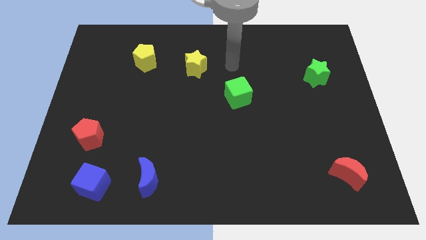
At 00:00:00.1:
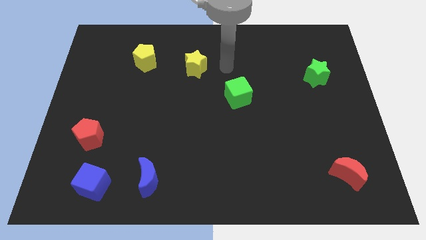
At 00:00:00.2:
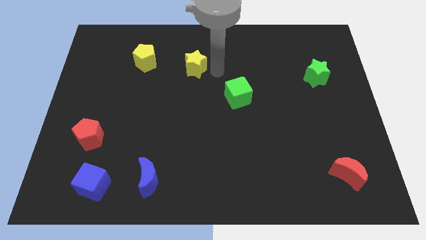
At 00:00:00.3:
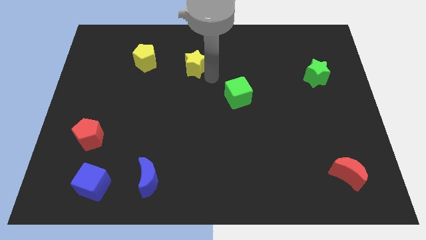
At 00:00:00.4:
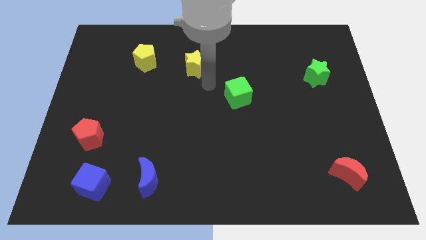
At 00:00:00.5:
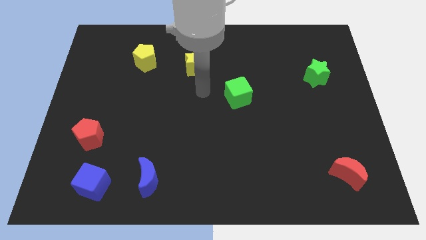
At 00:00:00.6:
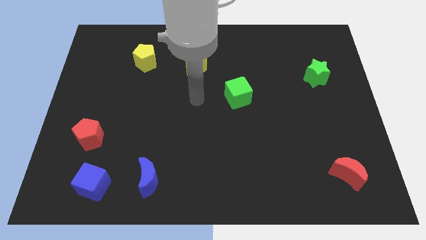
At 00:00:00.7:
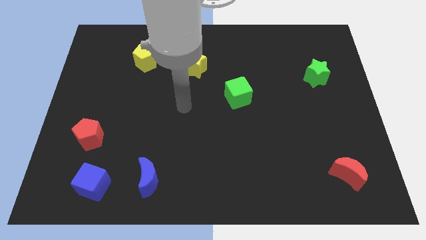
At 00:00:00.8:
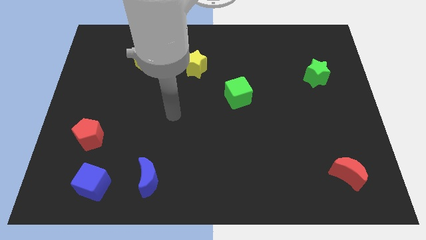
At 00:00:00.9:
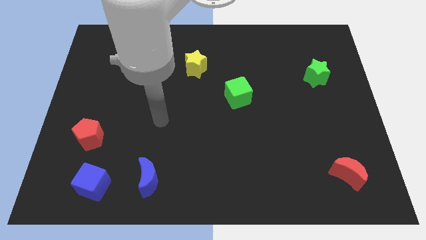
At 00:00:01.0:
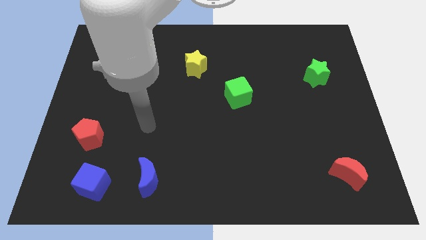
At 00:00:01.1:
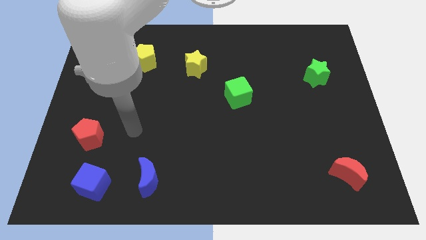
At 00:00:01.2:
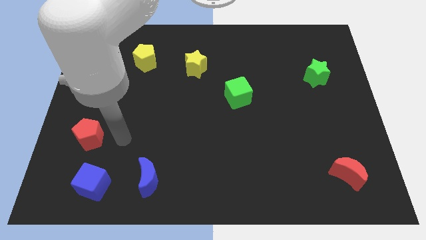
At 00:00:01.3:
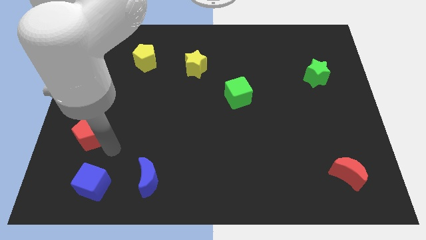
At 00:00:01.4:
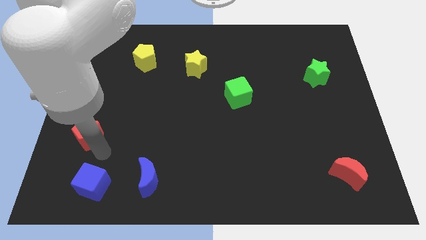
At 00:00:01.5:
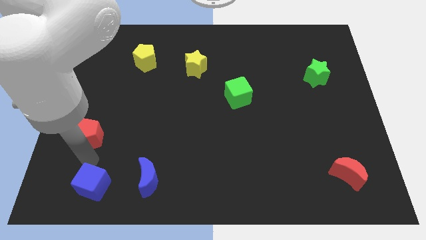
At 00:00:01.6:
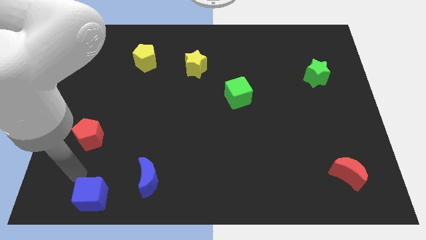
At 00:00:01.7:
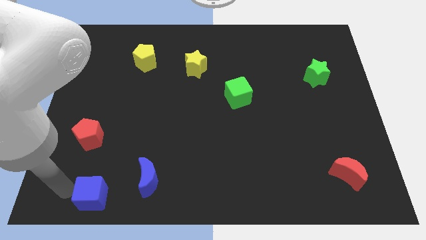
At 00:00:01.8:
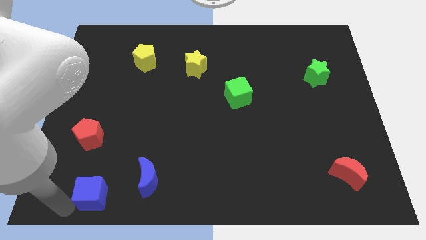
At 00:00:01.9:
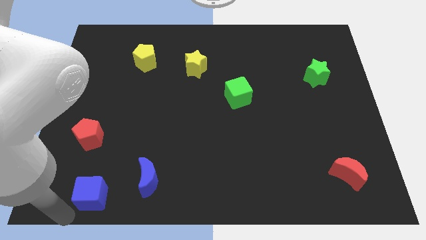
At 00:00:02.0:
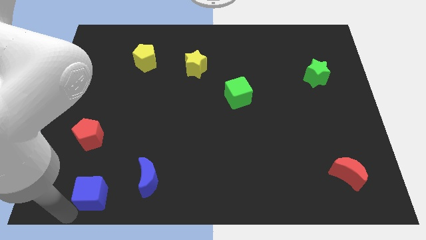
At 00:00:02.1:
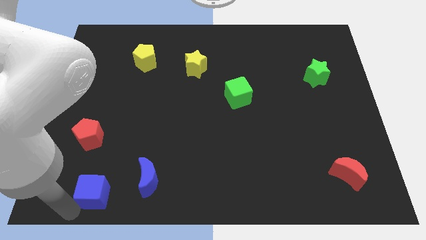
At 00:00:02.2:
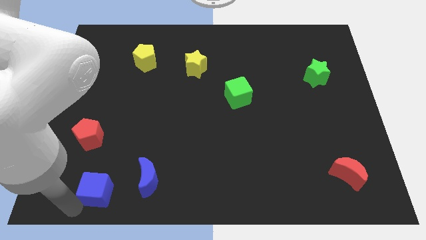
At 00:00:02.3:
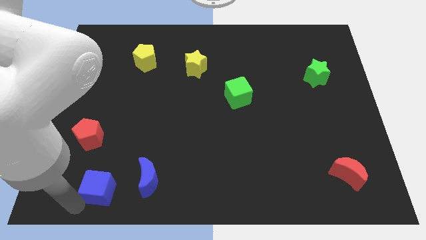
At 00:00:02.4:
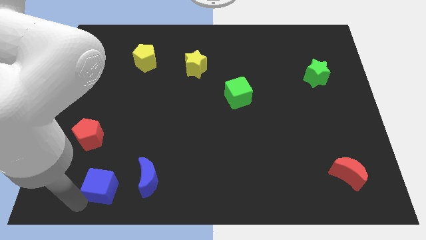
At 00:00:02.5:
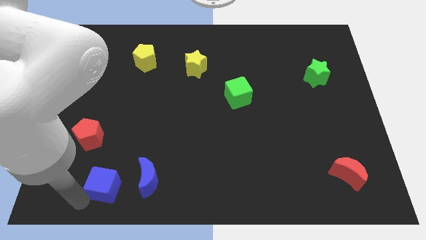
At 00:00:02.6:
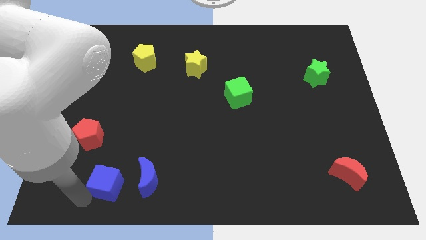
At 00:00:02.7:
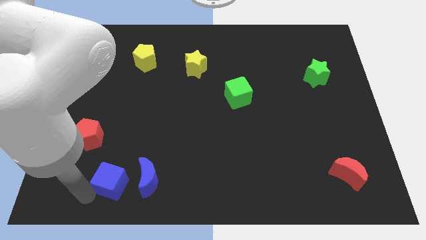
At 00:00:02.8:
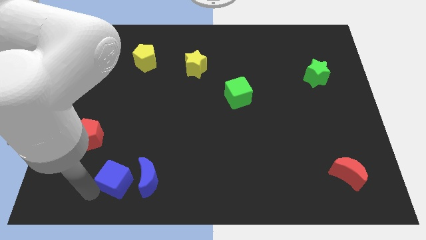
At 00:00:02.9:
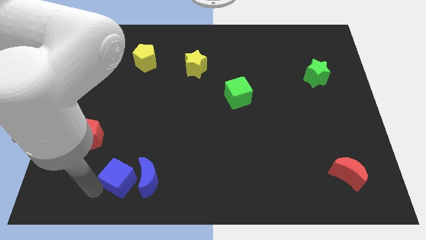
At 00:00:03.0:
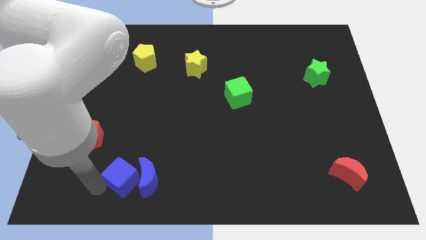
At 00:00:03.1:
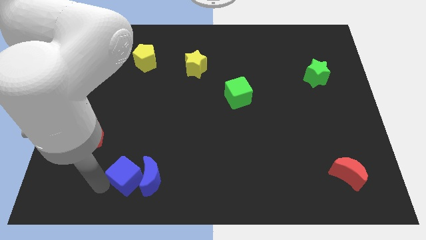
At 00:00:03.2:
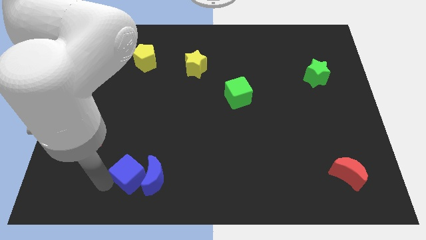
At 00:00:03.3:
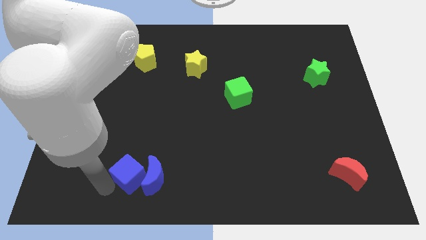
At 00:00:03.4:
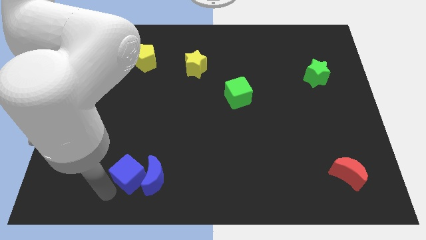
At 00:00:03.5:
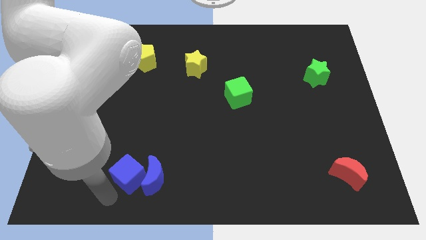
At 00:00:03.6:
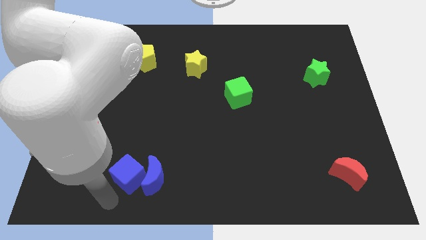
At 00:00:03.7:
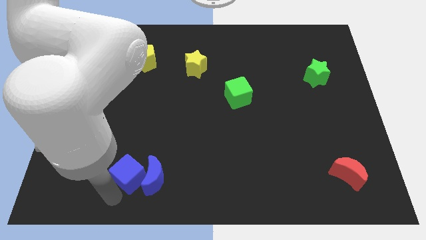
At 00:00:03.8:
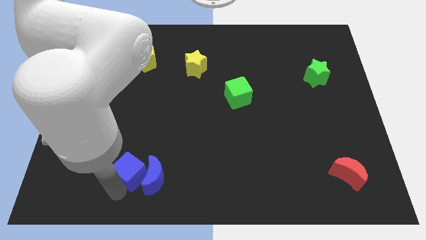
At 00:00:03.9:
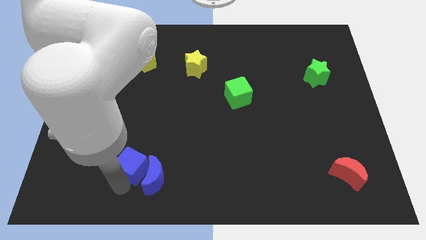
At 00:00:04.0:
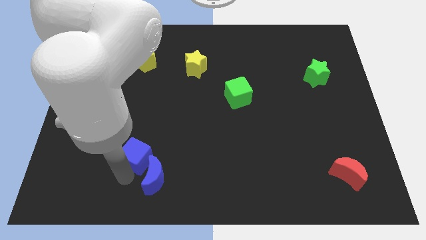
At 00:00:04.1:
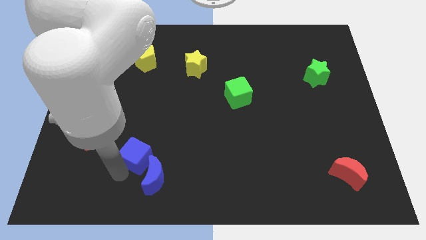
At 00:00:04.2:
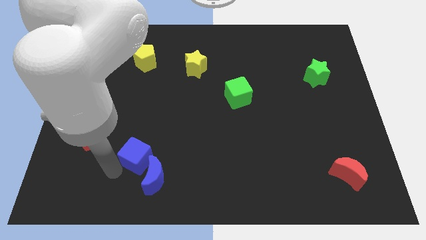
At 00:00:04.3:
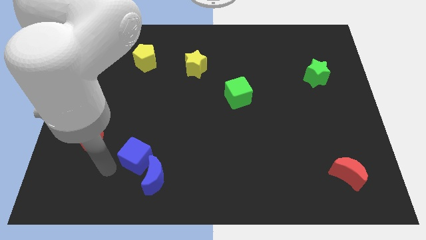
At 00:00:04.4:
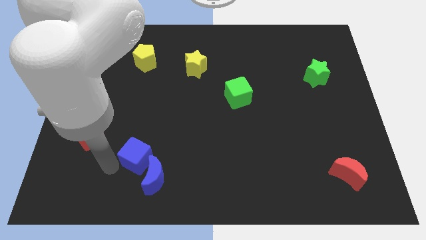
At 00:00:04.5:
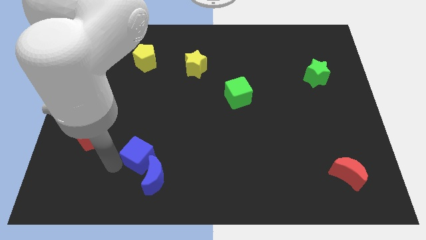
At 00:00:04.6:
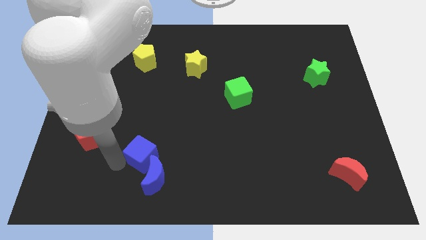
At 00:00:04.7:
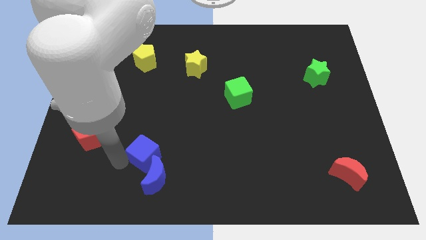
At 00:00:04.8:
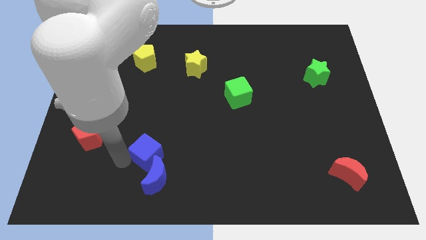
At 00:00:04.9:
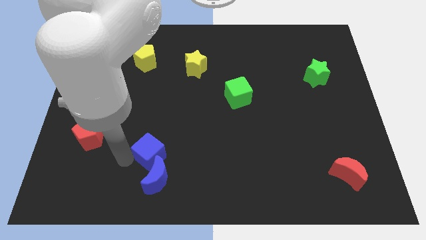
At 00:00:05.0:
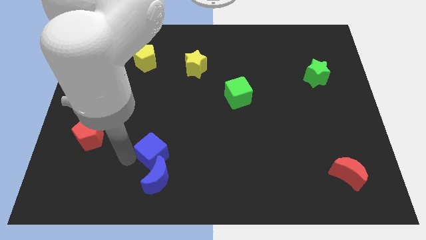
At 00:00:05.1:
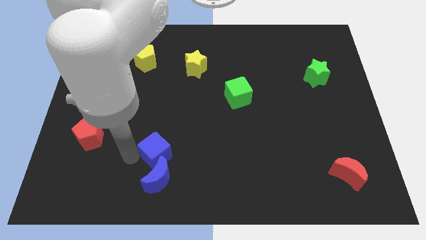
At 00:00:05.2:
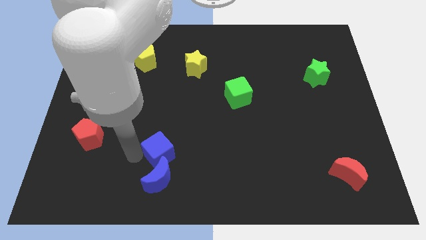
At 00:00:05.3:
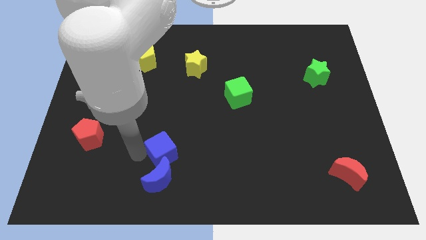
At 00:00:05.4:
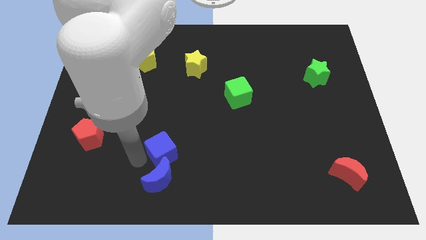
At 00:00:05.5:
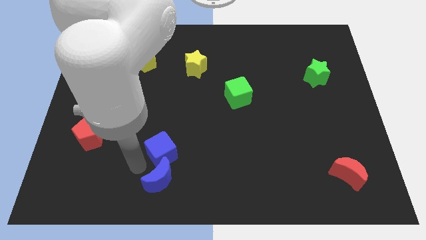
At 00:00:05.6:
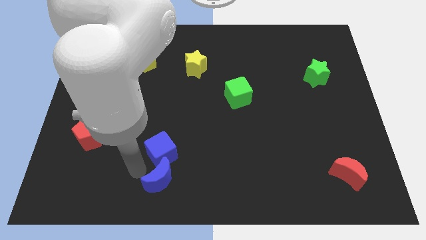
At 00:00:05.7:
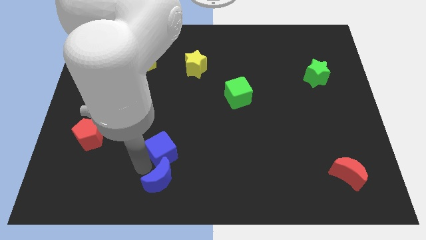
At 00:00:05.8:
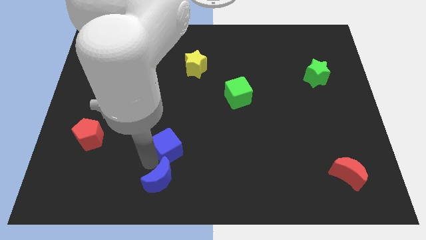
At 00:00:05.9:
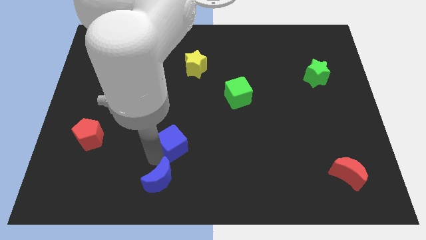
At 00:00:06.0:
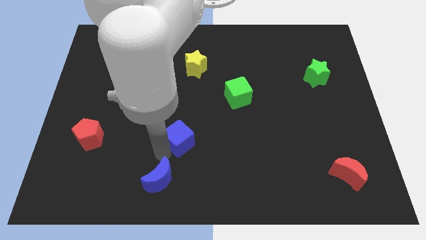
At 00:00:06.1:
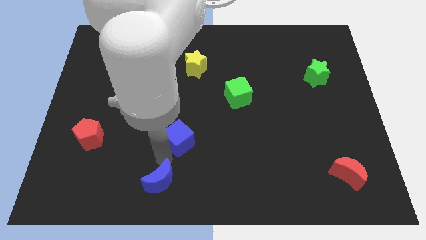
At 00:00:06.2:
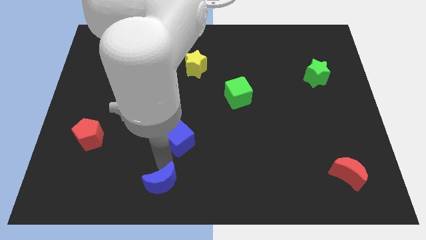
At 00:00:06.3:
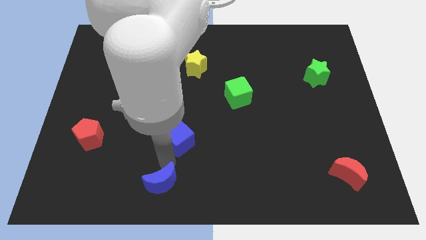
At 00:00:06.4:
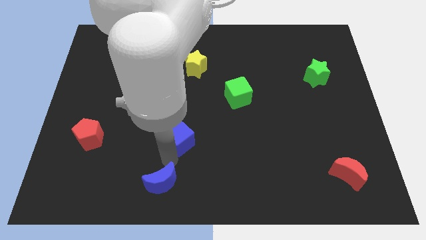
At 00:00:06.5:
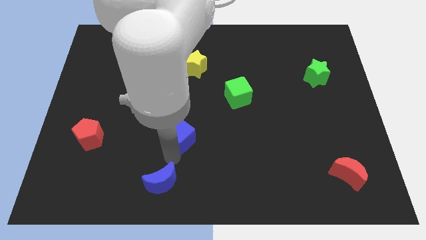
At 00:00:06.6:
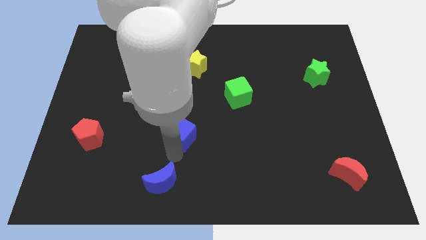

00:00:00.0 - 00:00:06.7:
move the blue cube upwards and to the right

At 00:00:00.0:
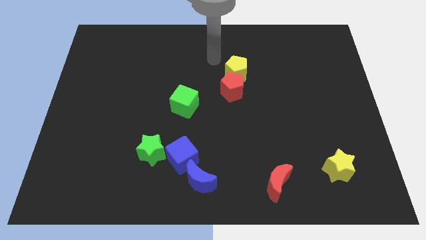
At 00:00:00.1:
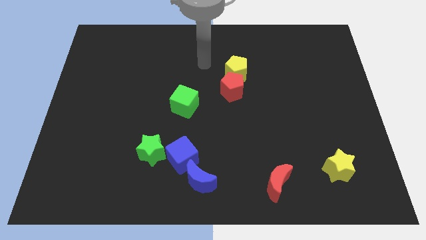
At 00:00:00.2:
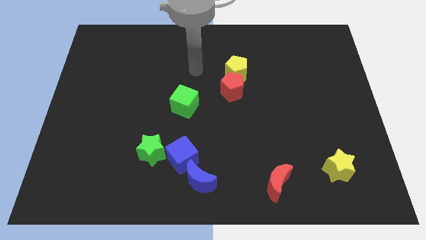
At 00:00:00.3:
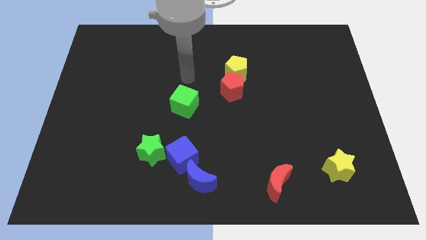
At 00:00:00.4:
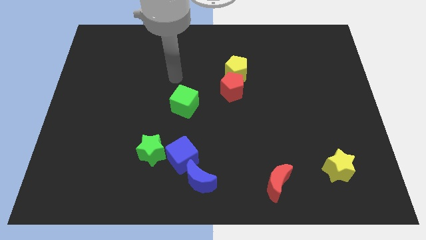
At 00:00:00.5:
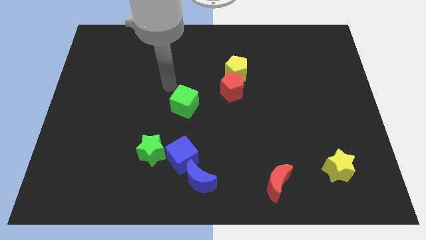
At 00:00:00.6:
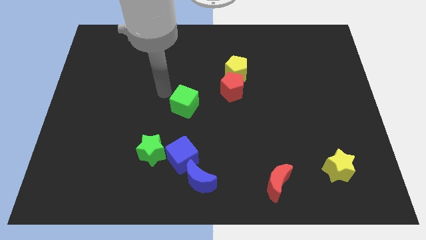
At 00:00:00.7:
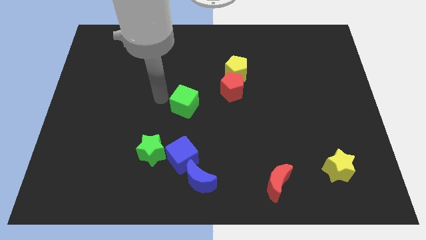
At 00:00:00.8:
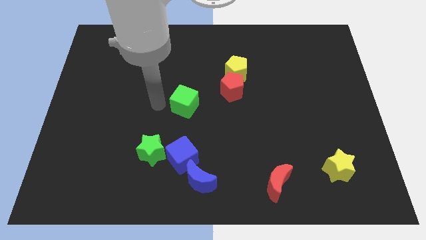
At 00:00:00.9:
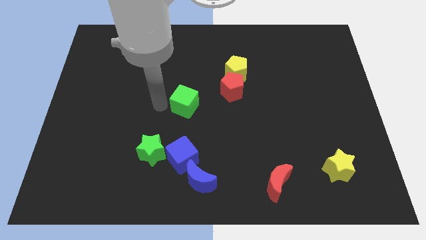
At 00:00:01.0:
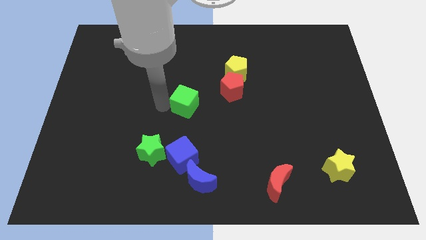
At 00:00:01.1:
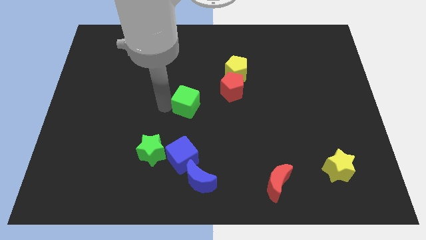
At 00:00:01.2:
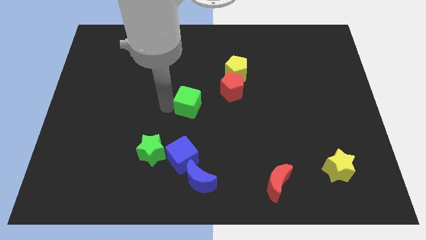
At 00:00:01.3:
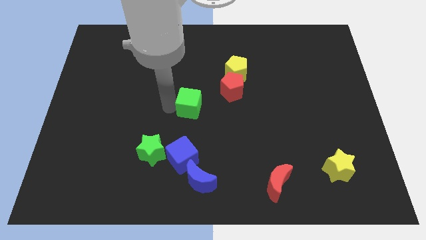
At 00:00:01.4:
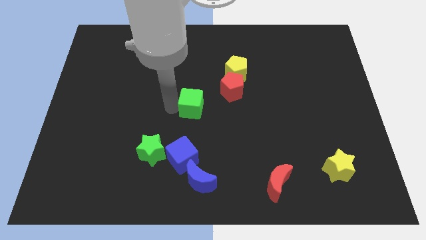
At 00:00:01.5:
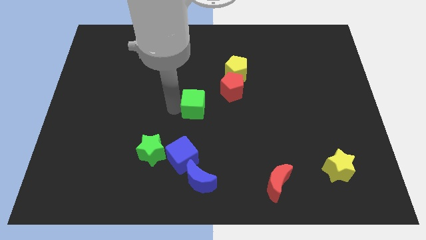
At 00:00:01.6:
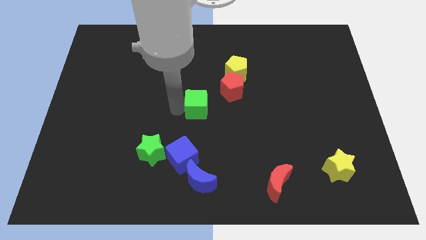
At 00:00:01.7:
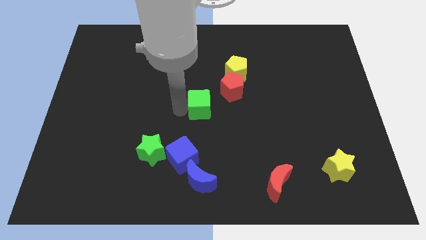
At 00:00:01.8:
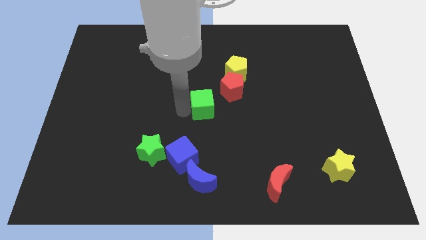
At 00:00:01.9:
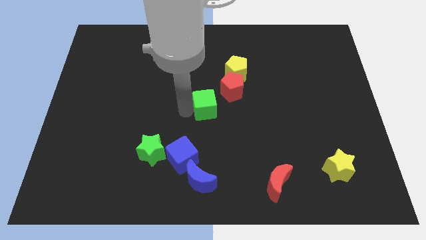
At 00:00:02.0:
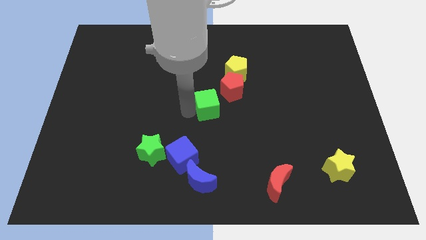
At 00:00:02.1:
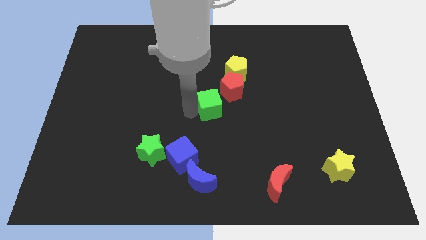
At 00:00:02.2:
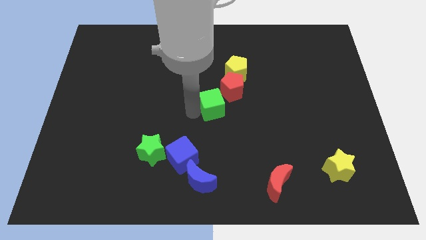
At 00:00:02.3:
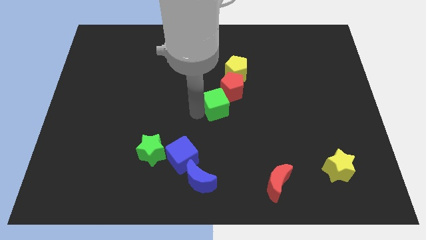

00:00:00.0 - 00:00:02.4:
slightly move the green cube to the right
